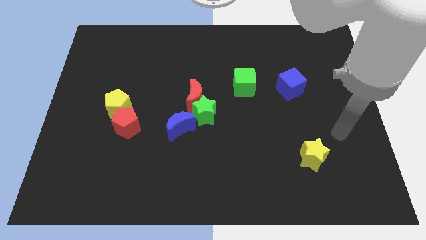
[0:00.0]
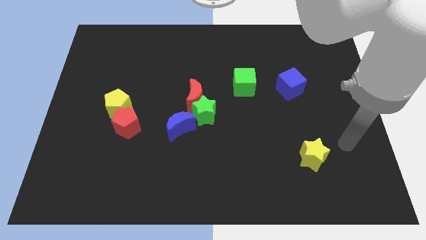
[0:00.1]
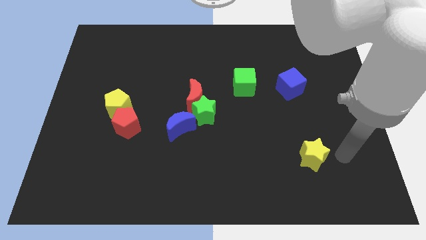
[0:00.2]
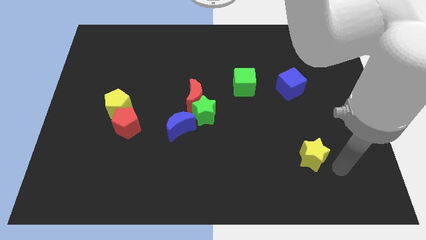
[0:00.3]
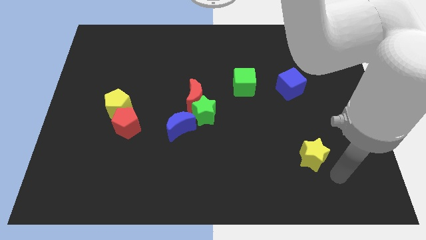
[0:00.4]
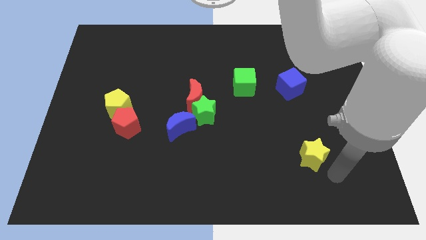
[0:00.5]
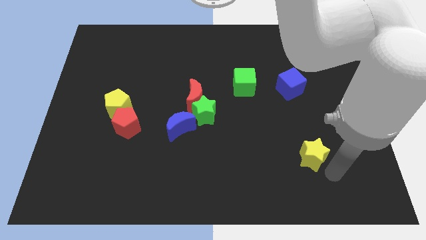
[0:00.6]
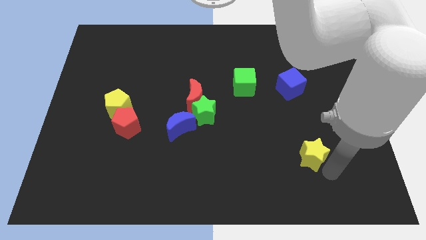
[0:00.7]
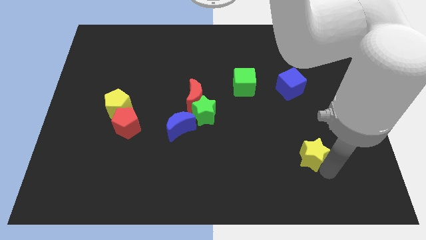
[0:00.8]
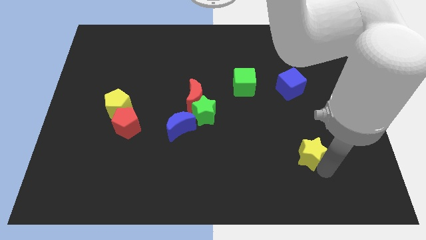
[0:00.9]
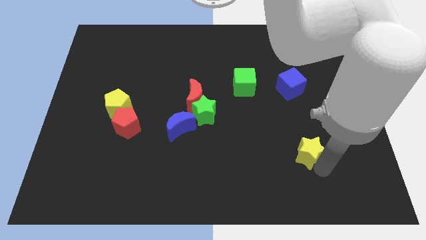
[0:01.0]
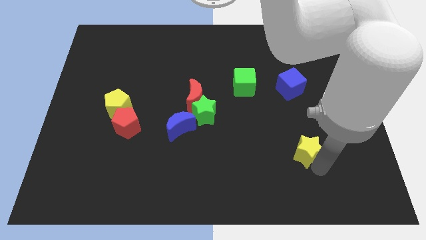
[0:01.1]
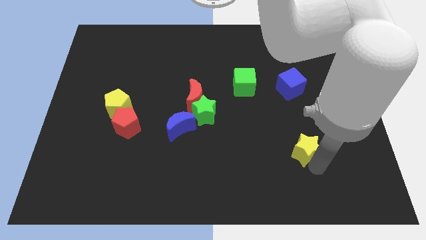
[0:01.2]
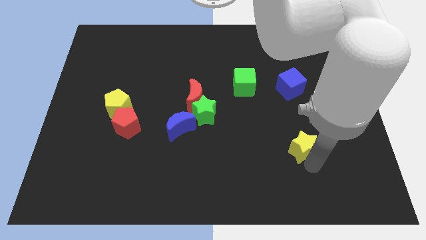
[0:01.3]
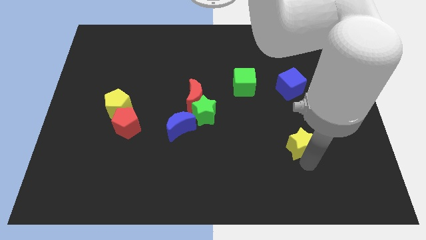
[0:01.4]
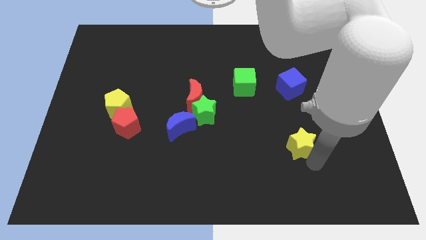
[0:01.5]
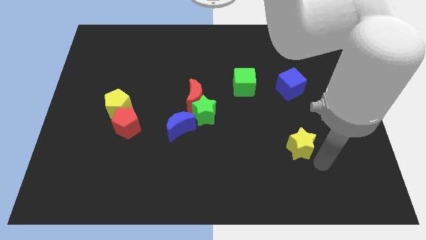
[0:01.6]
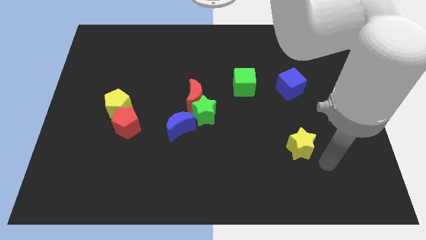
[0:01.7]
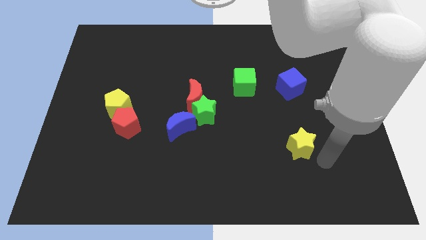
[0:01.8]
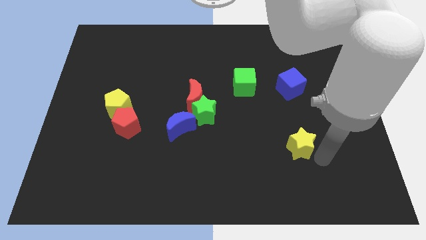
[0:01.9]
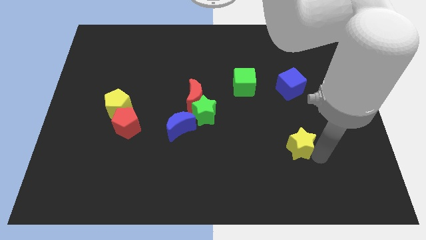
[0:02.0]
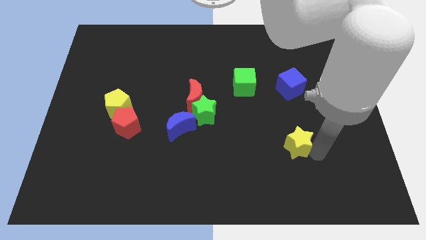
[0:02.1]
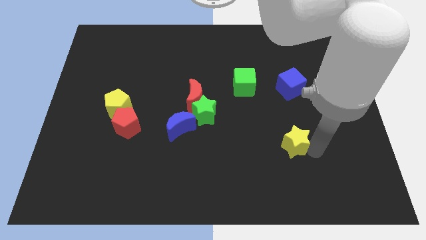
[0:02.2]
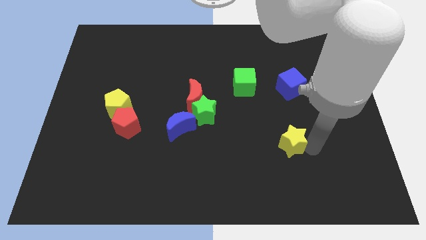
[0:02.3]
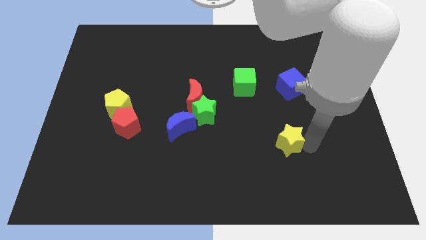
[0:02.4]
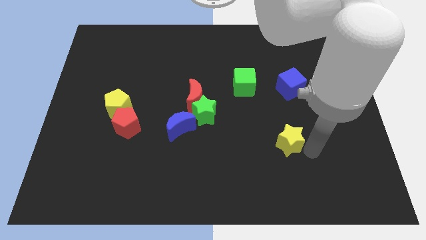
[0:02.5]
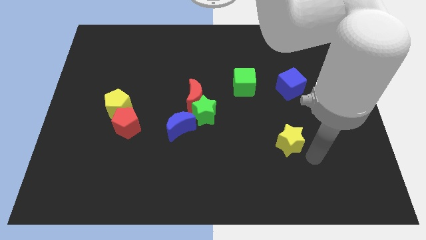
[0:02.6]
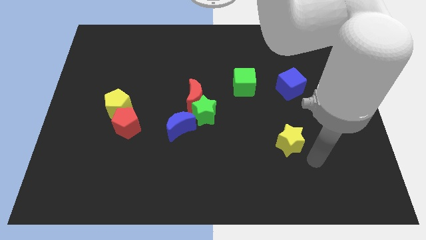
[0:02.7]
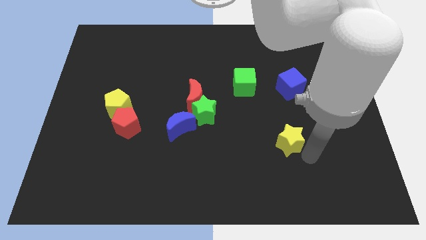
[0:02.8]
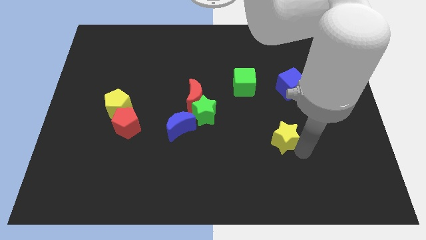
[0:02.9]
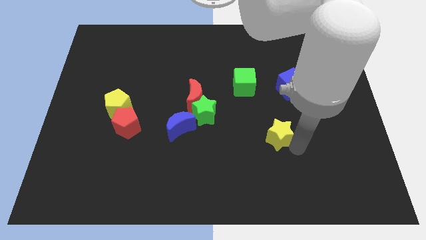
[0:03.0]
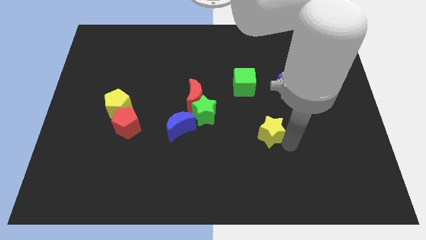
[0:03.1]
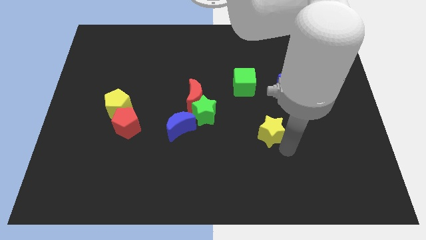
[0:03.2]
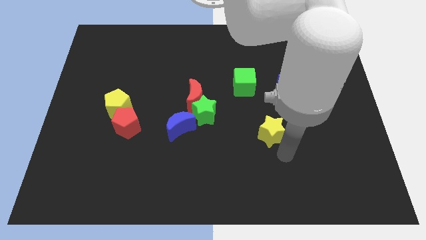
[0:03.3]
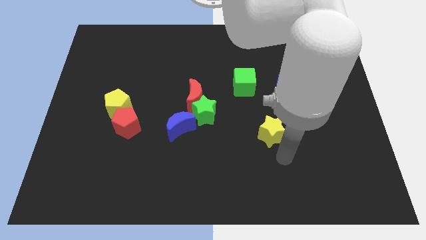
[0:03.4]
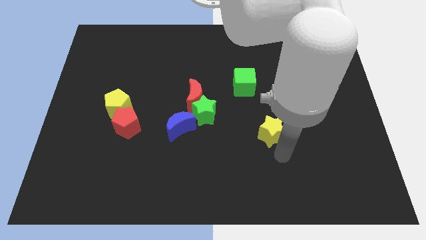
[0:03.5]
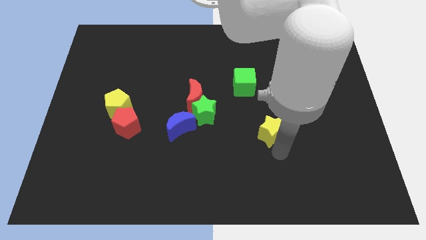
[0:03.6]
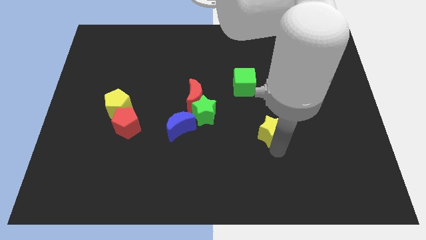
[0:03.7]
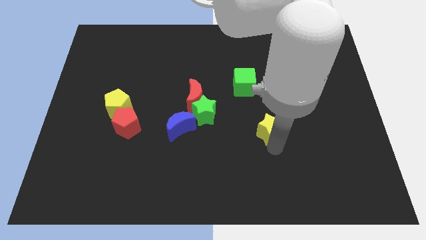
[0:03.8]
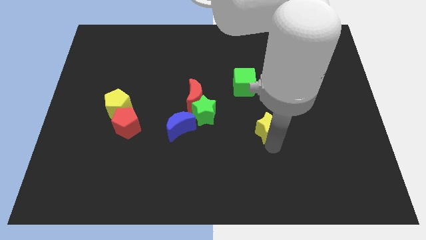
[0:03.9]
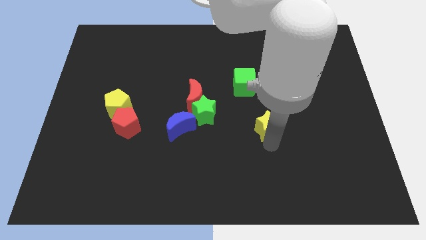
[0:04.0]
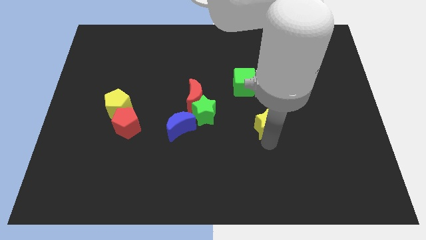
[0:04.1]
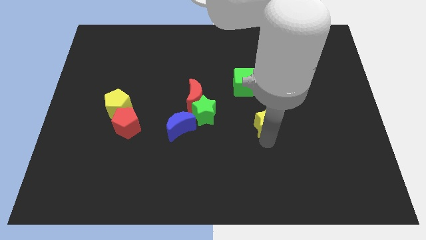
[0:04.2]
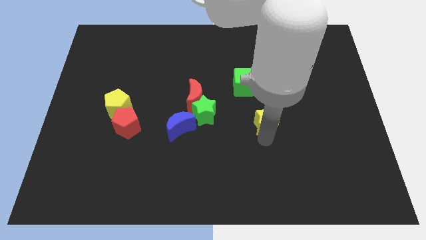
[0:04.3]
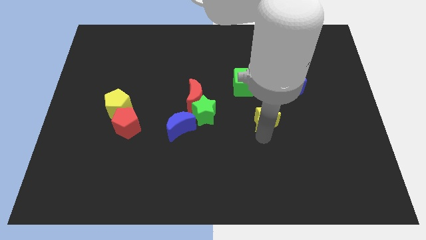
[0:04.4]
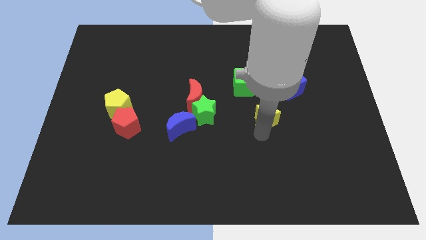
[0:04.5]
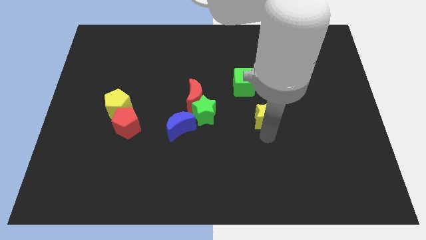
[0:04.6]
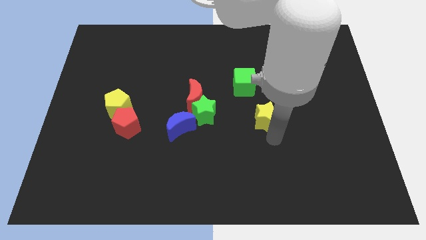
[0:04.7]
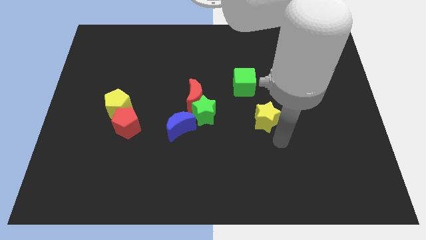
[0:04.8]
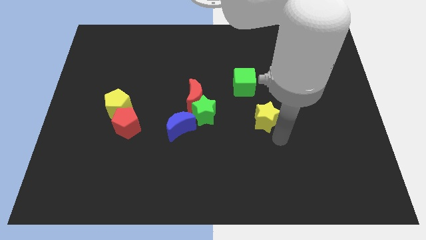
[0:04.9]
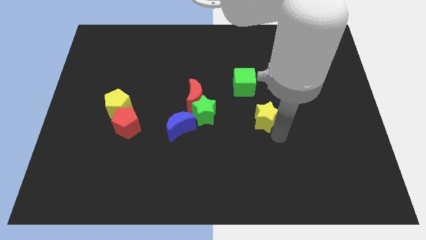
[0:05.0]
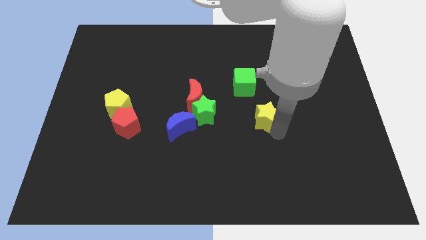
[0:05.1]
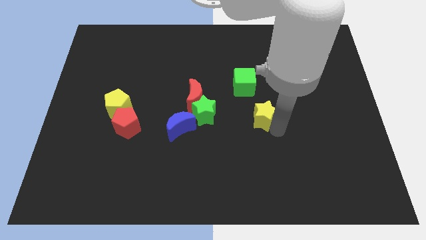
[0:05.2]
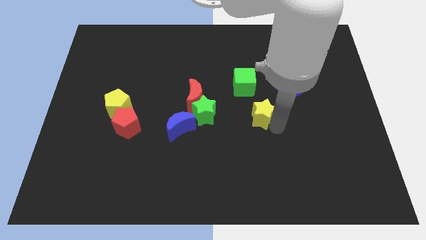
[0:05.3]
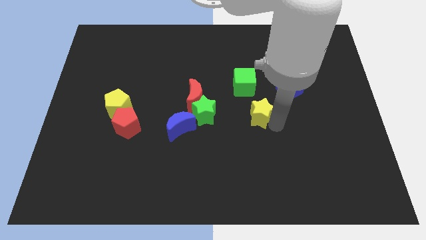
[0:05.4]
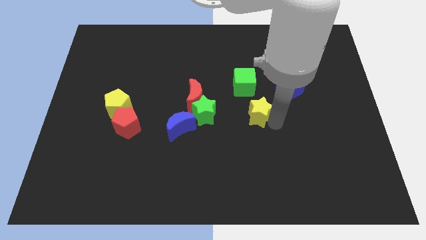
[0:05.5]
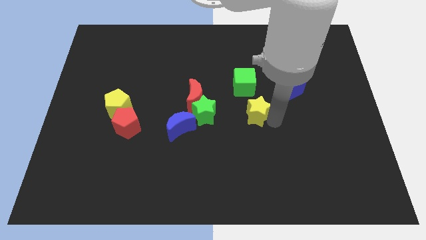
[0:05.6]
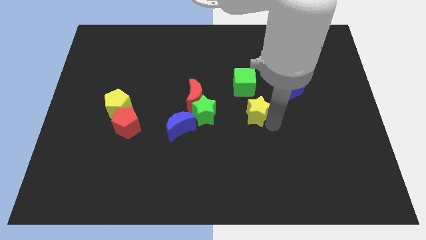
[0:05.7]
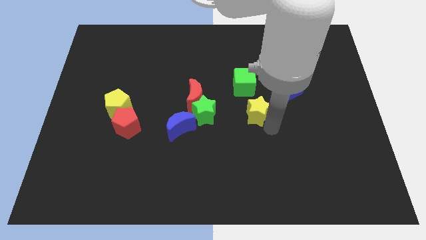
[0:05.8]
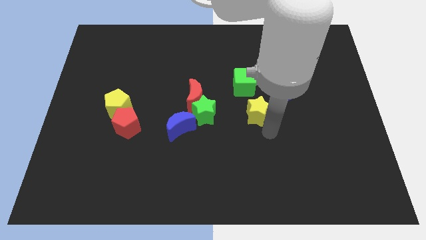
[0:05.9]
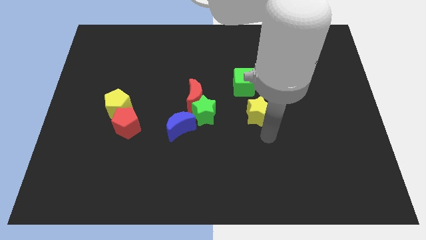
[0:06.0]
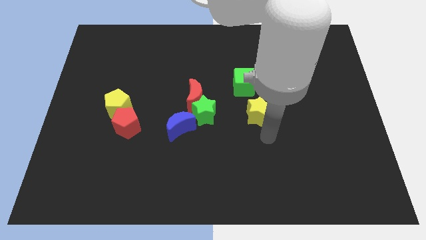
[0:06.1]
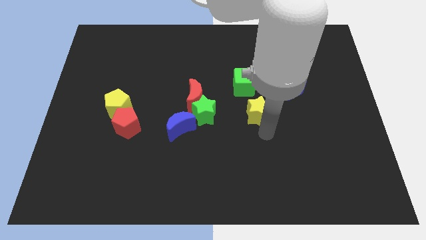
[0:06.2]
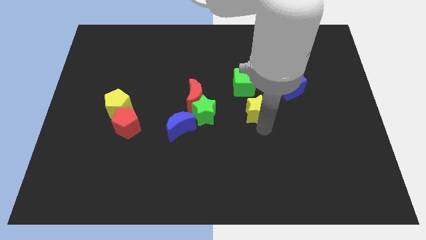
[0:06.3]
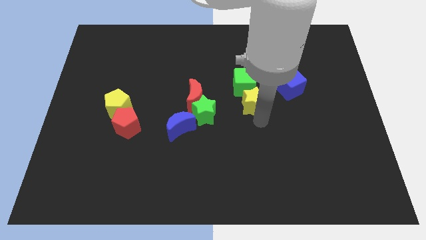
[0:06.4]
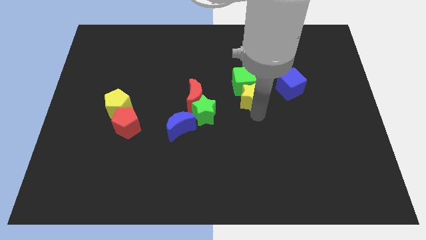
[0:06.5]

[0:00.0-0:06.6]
push the yellow star towards the green cube
